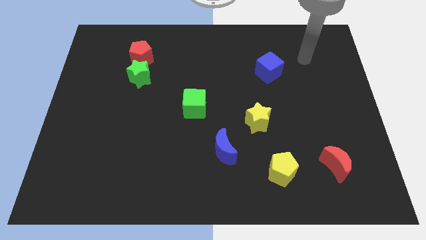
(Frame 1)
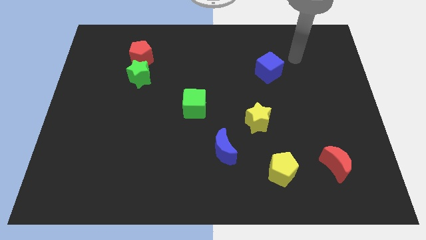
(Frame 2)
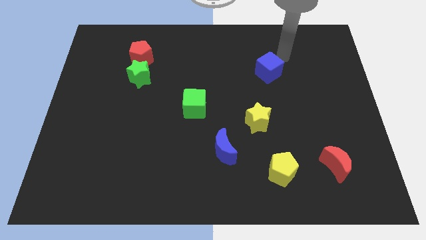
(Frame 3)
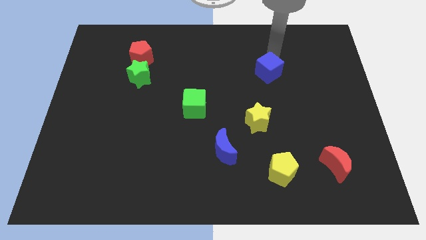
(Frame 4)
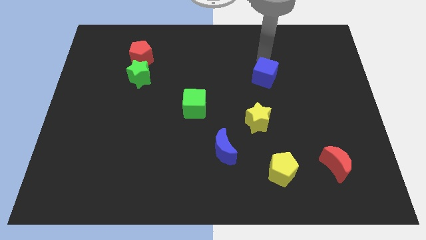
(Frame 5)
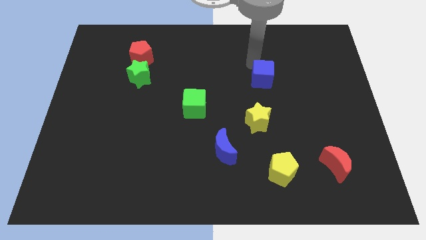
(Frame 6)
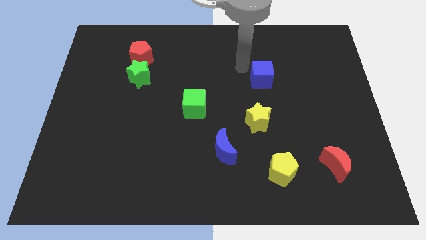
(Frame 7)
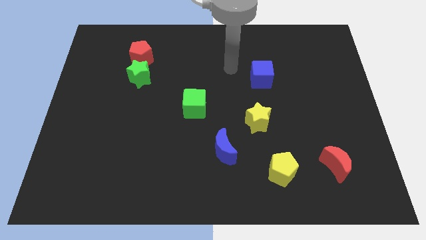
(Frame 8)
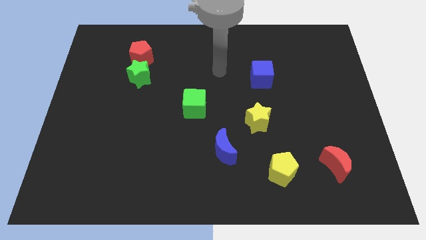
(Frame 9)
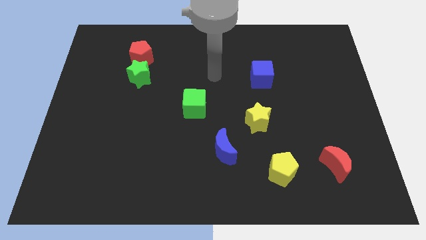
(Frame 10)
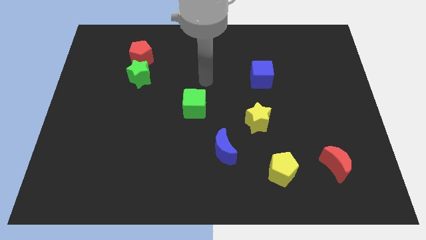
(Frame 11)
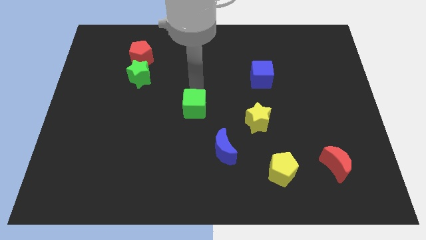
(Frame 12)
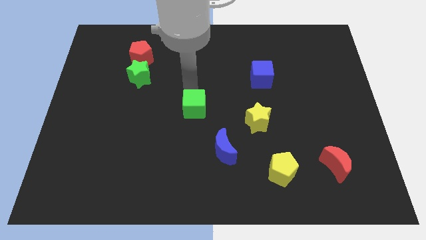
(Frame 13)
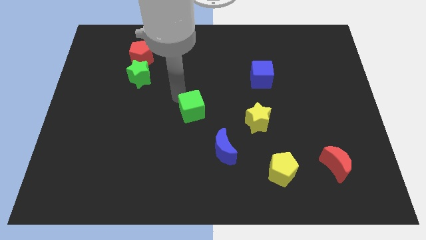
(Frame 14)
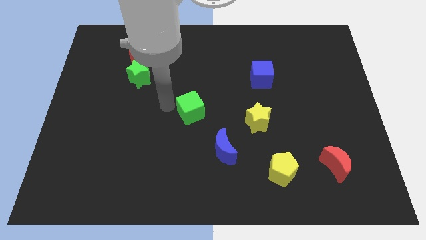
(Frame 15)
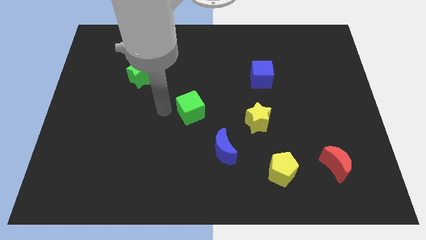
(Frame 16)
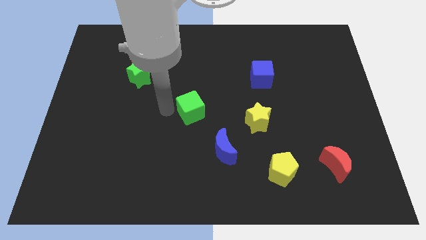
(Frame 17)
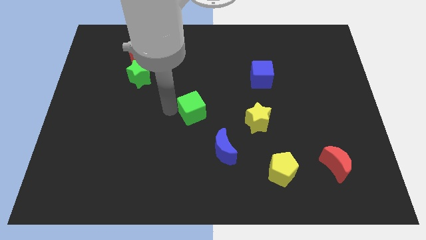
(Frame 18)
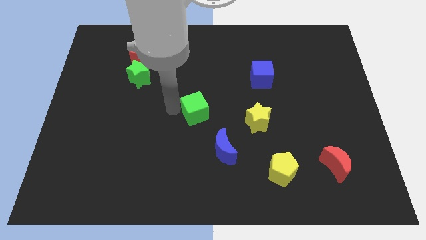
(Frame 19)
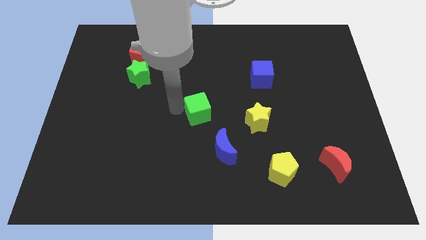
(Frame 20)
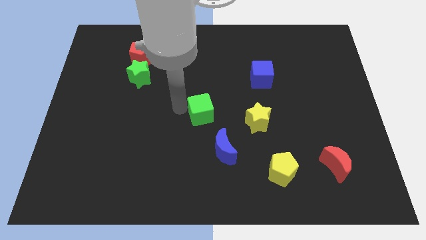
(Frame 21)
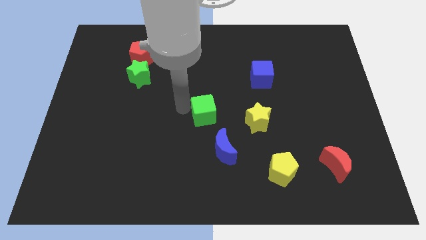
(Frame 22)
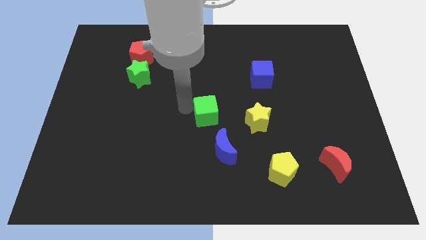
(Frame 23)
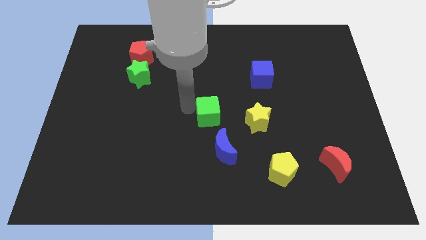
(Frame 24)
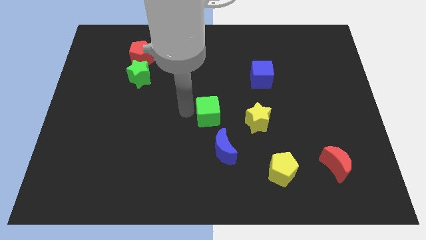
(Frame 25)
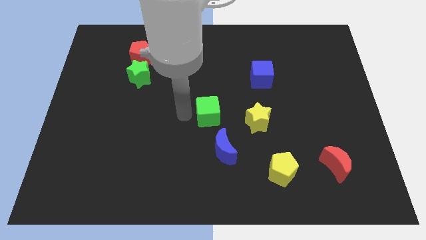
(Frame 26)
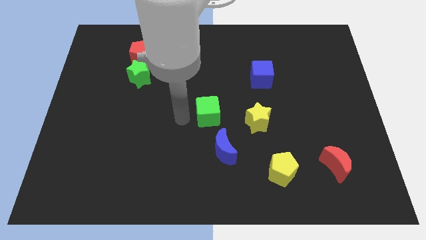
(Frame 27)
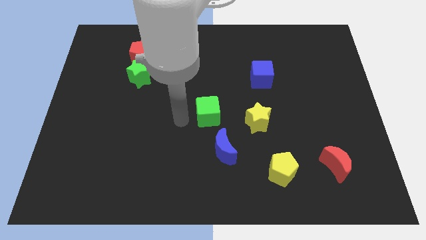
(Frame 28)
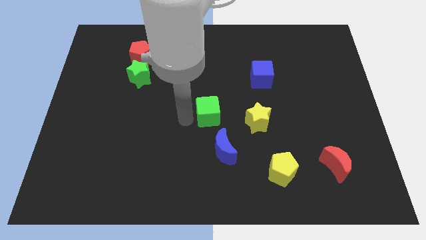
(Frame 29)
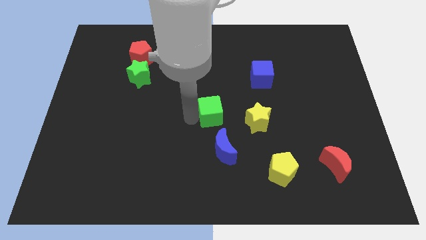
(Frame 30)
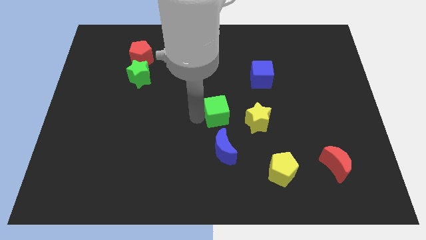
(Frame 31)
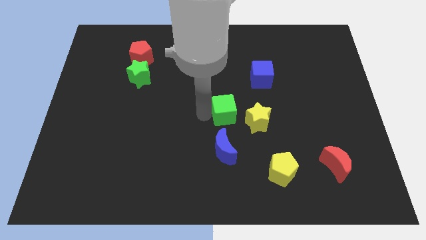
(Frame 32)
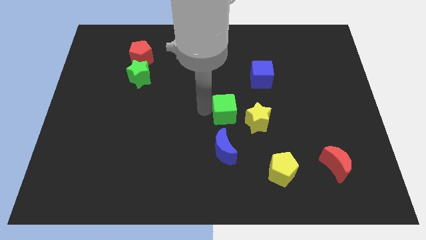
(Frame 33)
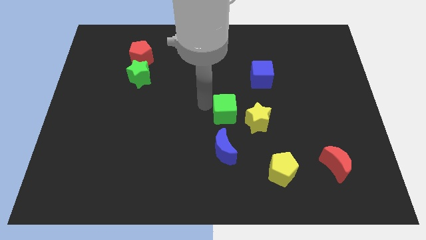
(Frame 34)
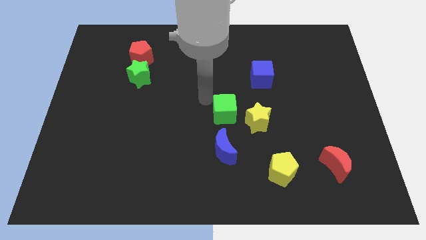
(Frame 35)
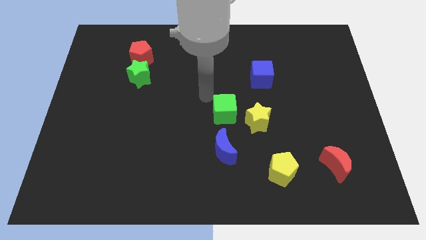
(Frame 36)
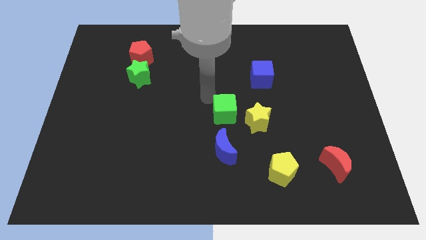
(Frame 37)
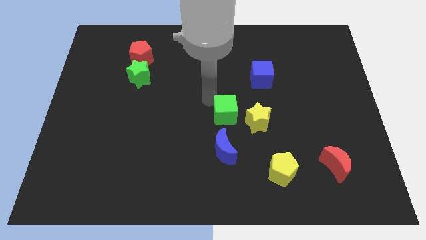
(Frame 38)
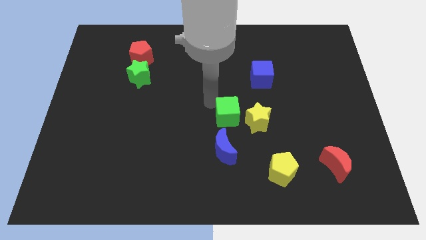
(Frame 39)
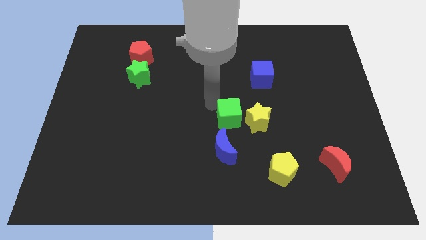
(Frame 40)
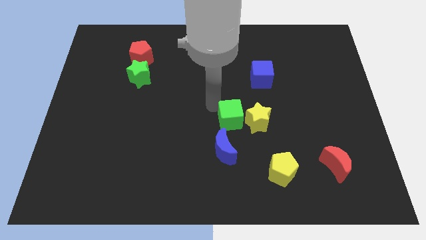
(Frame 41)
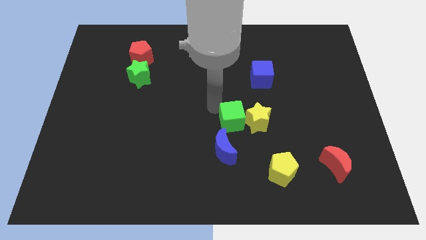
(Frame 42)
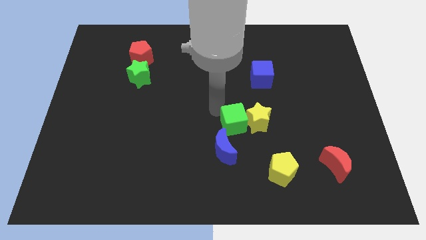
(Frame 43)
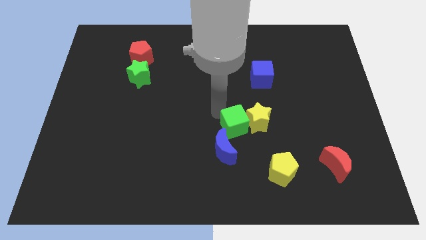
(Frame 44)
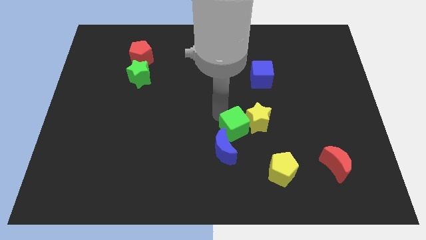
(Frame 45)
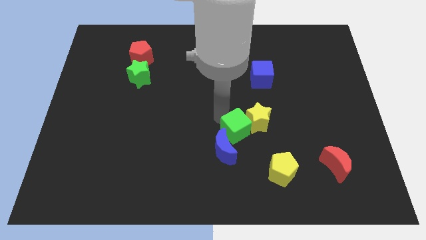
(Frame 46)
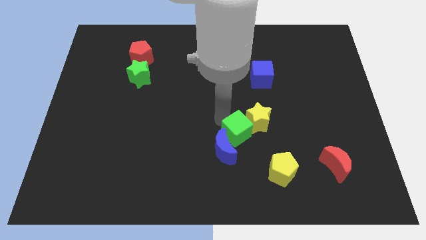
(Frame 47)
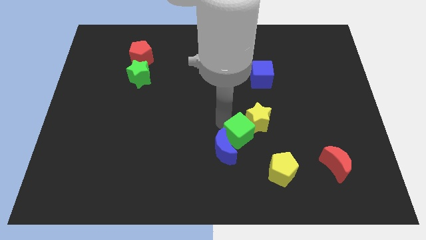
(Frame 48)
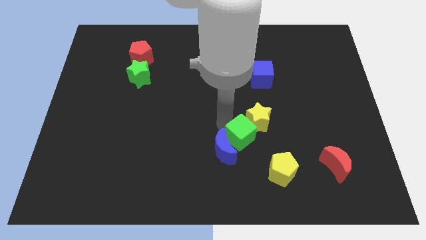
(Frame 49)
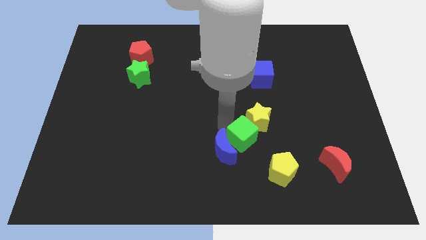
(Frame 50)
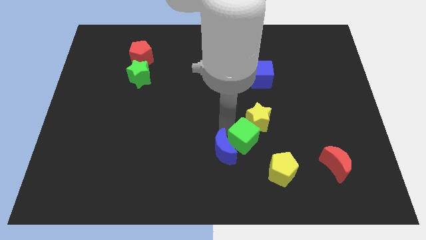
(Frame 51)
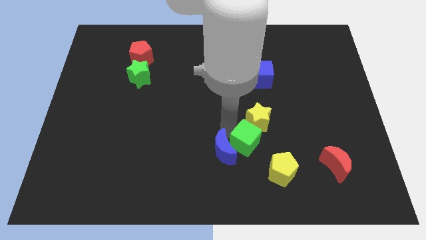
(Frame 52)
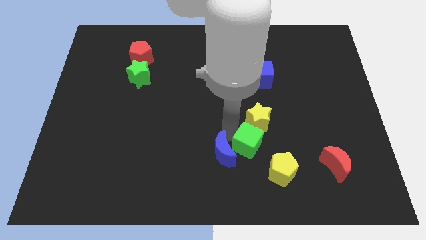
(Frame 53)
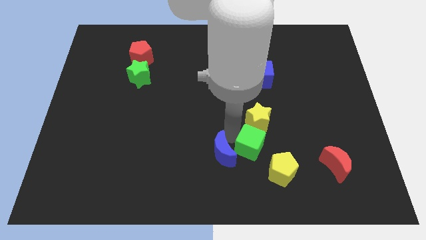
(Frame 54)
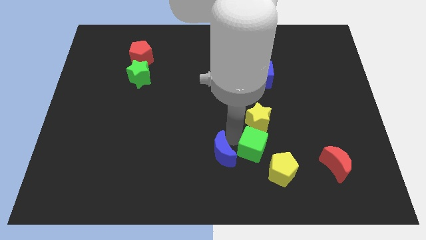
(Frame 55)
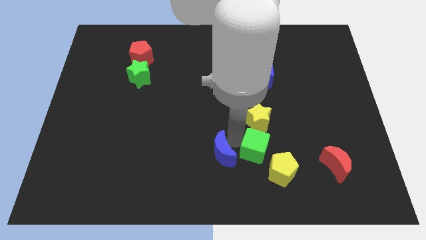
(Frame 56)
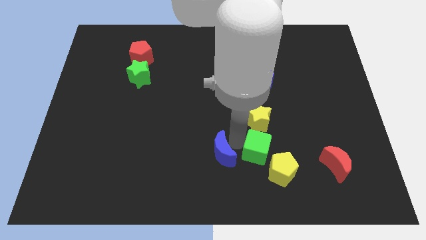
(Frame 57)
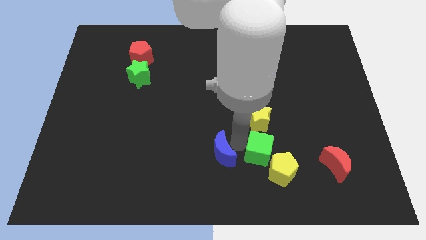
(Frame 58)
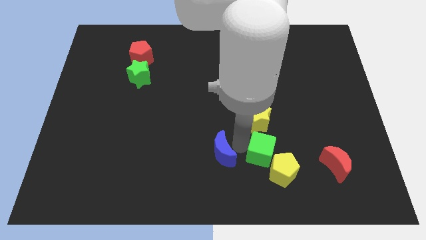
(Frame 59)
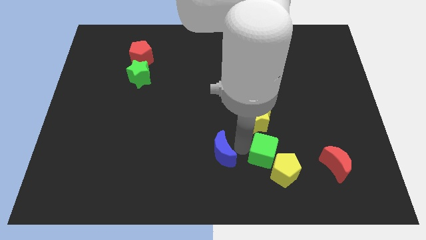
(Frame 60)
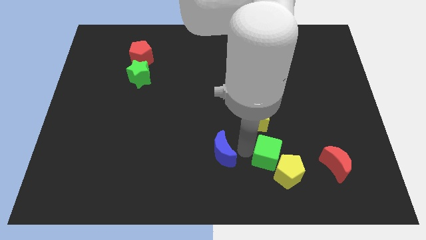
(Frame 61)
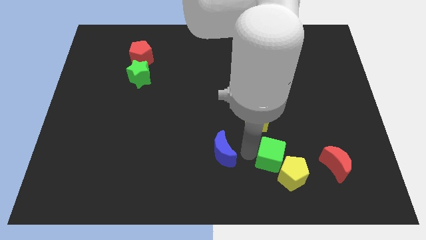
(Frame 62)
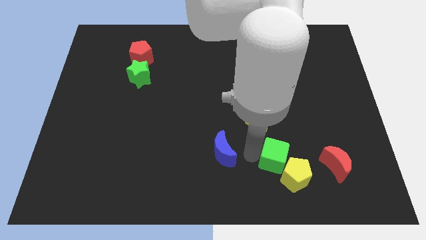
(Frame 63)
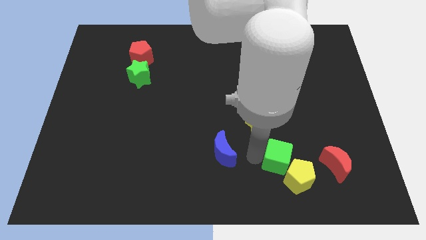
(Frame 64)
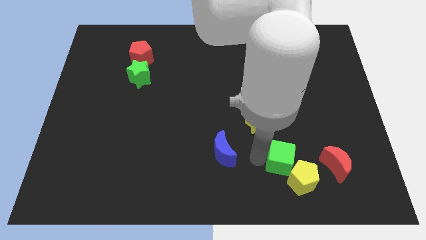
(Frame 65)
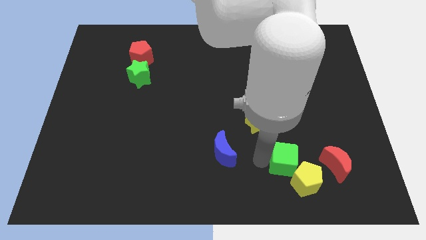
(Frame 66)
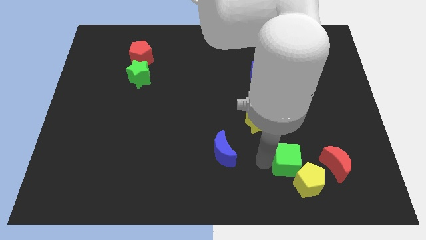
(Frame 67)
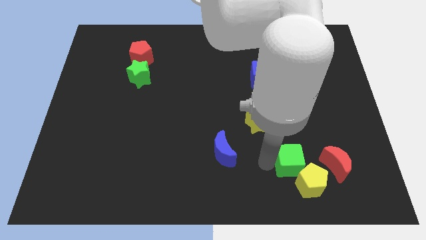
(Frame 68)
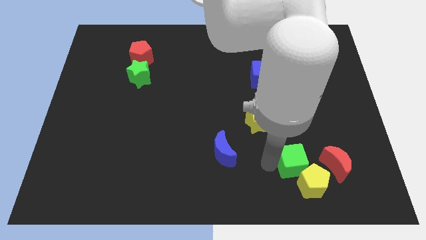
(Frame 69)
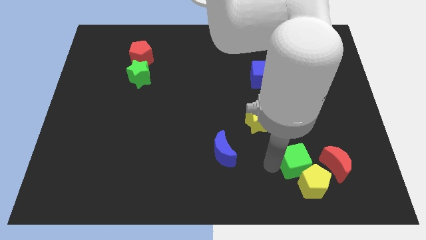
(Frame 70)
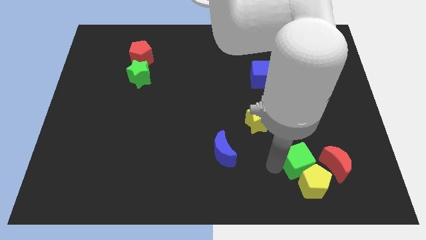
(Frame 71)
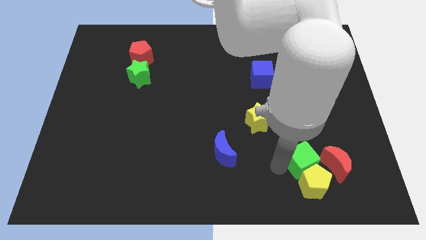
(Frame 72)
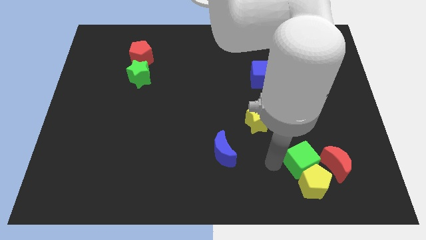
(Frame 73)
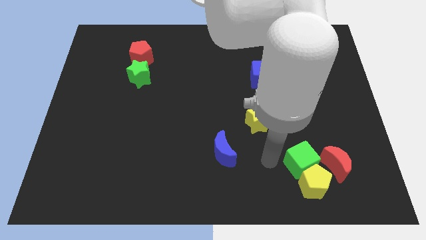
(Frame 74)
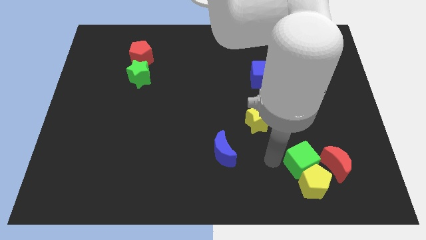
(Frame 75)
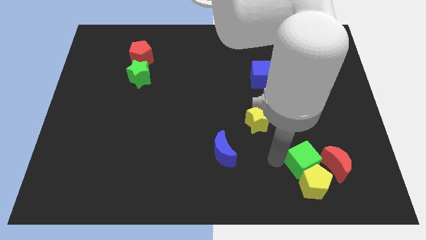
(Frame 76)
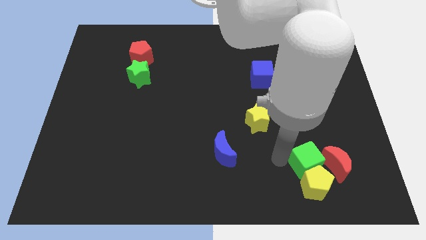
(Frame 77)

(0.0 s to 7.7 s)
move the green cube close to the red moon

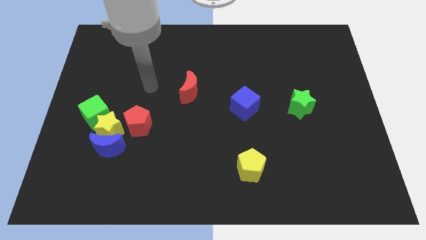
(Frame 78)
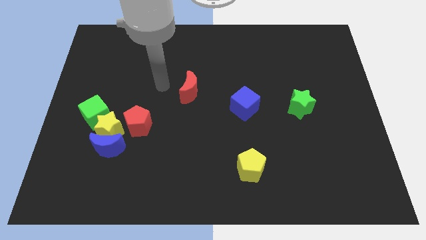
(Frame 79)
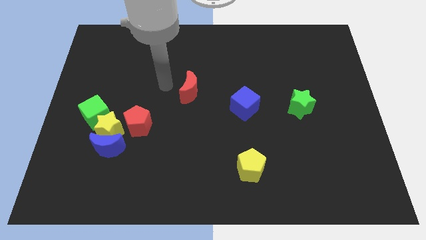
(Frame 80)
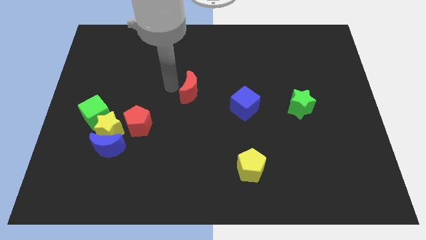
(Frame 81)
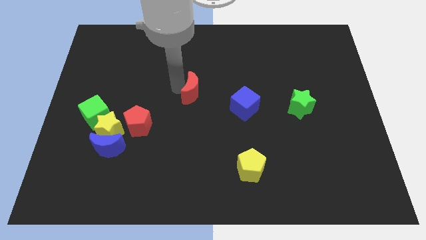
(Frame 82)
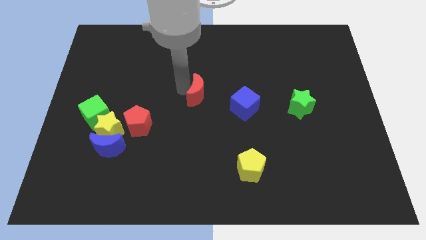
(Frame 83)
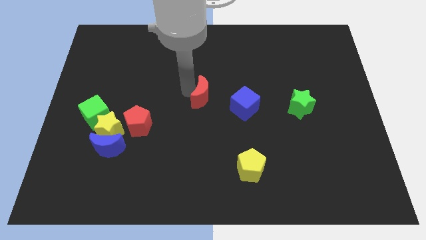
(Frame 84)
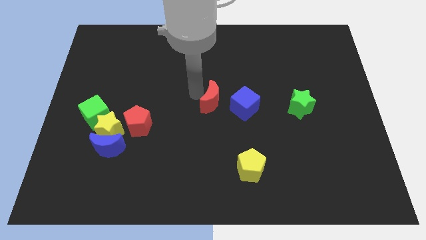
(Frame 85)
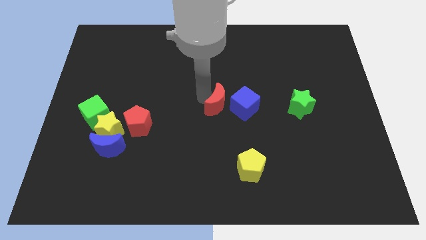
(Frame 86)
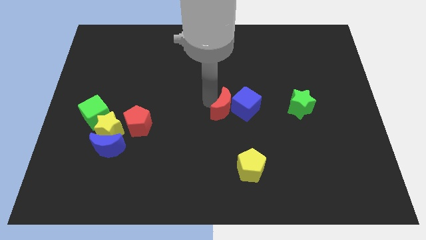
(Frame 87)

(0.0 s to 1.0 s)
slide the red moon close to the blue cube
